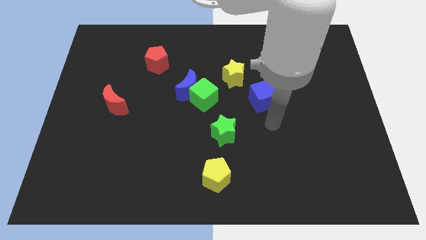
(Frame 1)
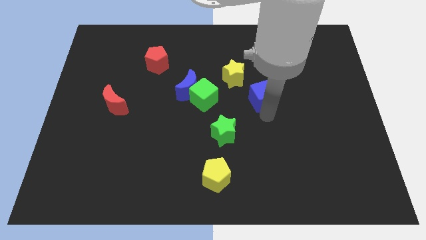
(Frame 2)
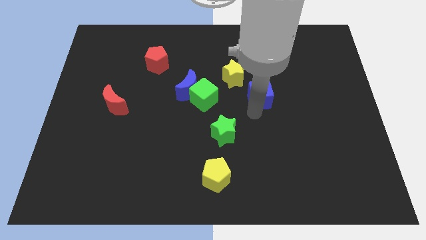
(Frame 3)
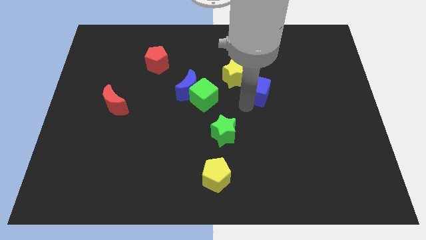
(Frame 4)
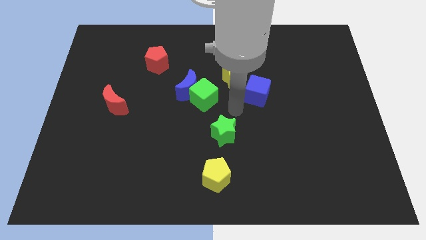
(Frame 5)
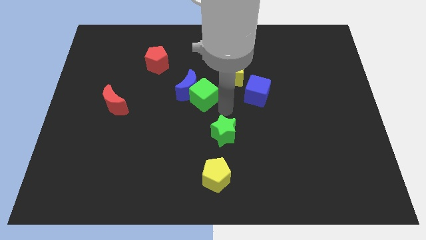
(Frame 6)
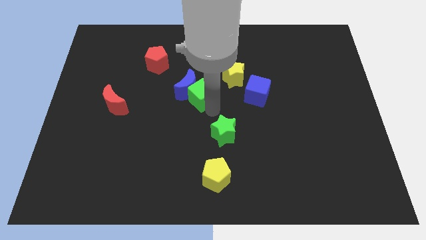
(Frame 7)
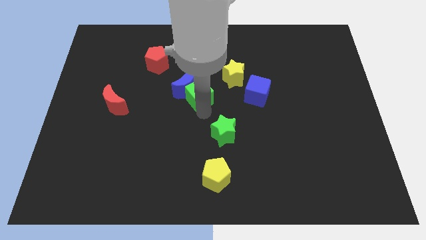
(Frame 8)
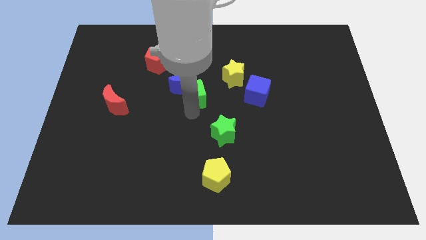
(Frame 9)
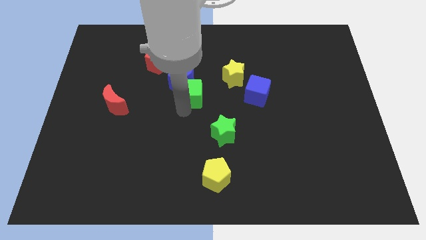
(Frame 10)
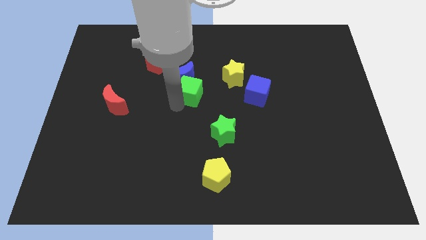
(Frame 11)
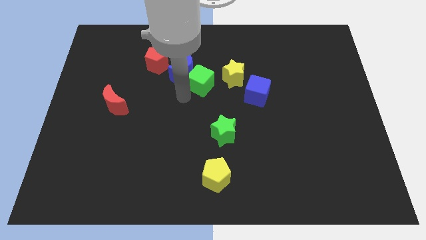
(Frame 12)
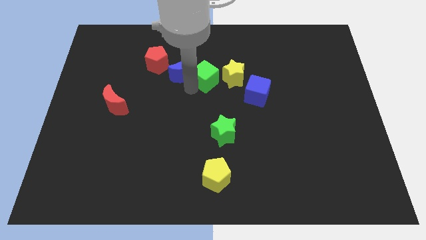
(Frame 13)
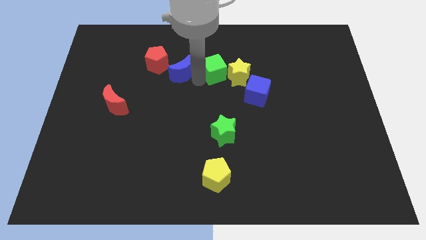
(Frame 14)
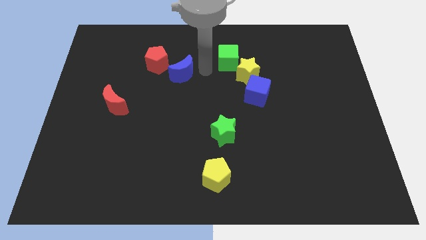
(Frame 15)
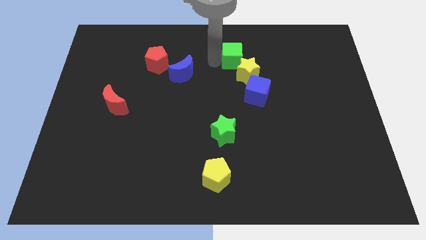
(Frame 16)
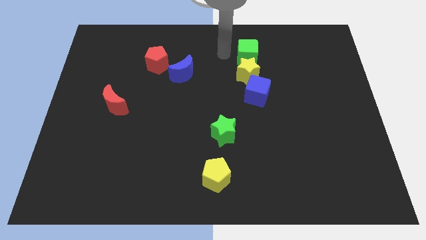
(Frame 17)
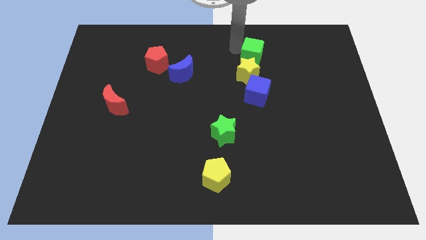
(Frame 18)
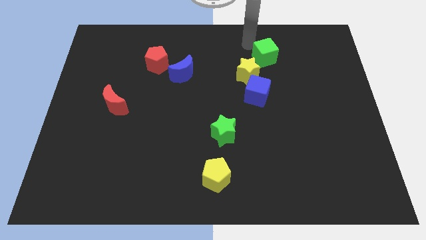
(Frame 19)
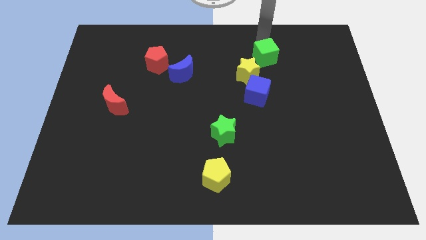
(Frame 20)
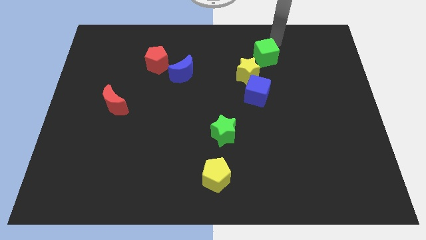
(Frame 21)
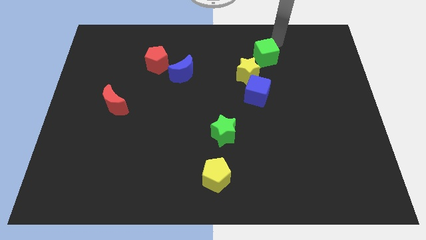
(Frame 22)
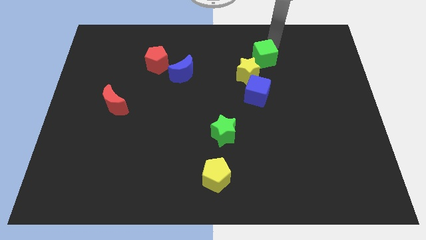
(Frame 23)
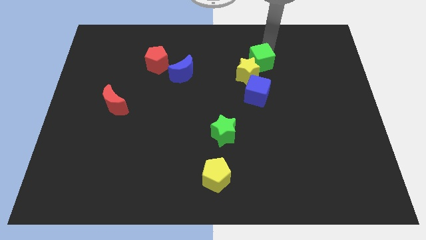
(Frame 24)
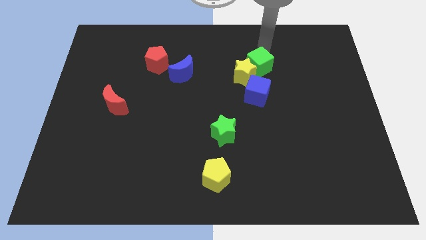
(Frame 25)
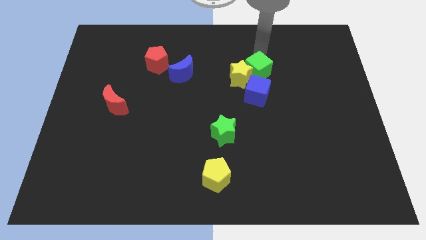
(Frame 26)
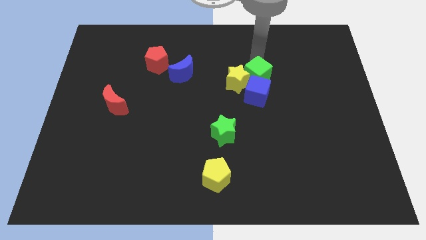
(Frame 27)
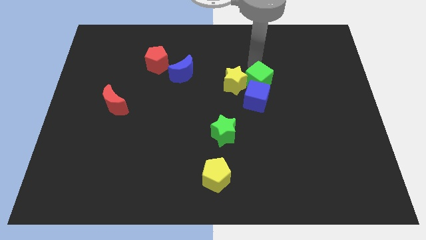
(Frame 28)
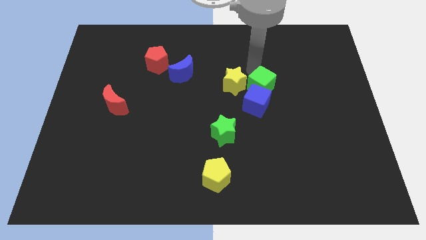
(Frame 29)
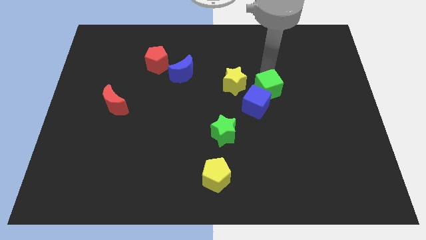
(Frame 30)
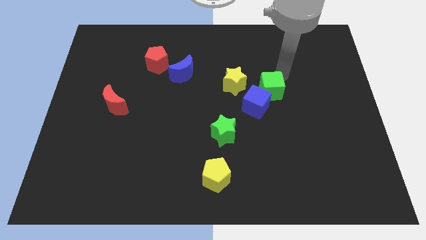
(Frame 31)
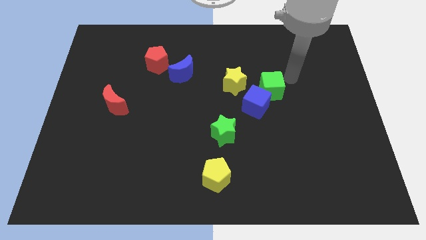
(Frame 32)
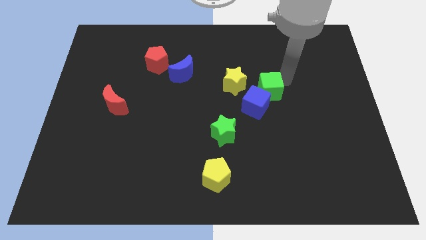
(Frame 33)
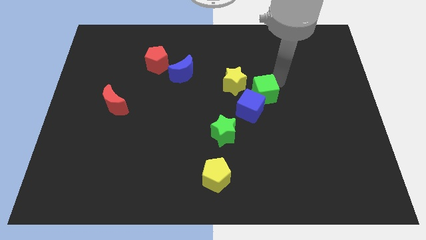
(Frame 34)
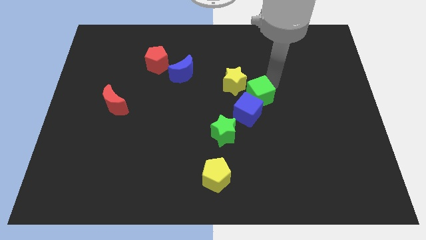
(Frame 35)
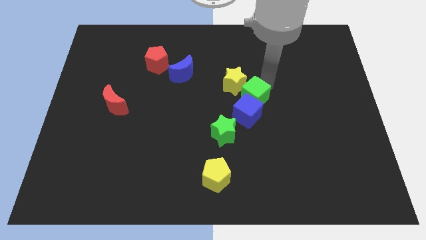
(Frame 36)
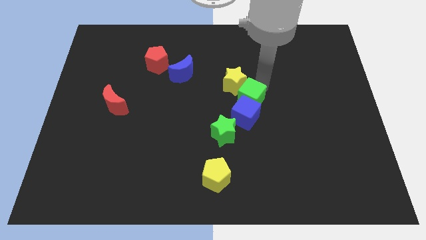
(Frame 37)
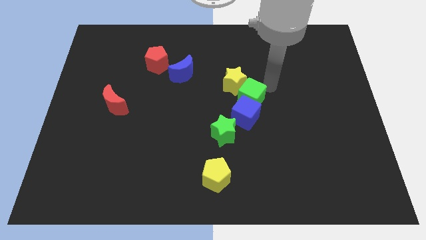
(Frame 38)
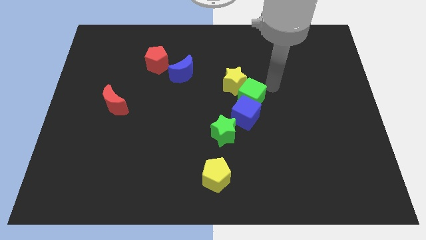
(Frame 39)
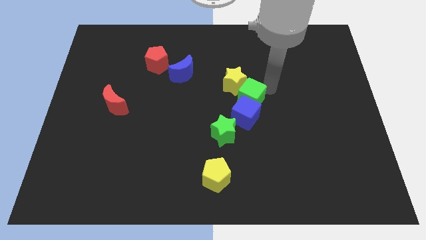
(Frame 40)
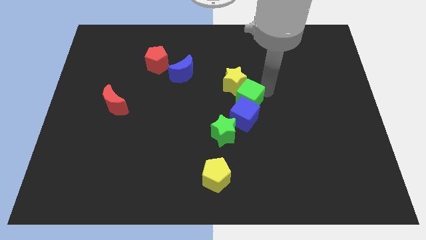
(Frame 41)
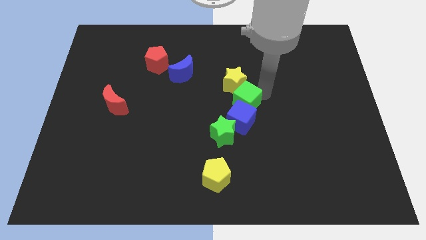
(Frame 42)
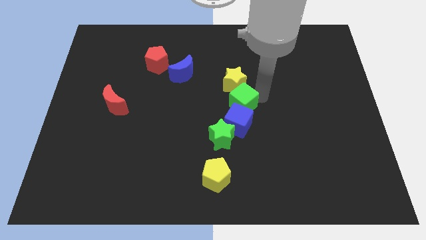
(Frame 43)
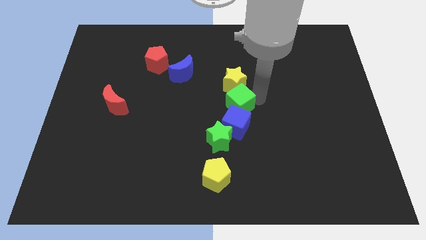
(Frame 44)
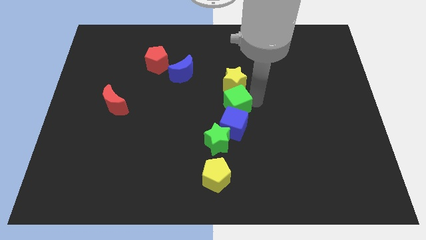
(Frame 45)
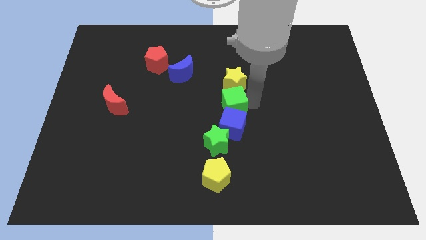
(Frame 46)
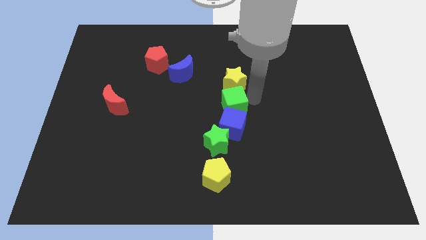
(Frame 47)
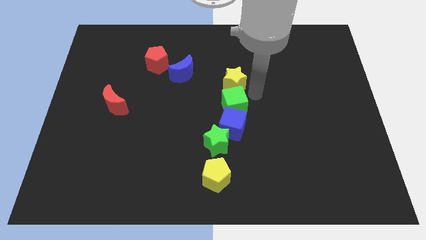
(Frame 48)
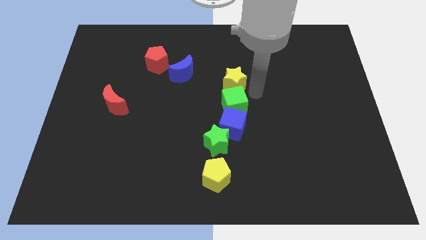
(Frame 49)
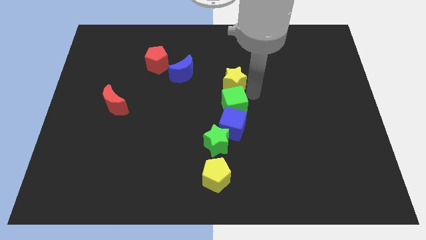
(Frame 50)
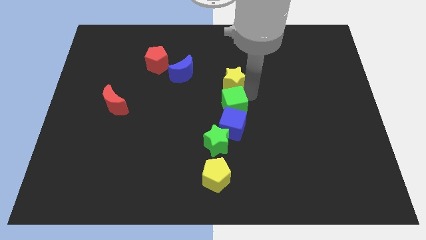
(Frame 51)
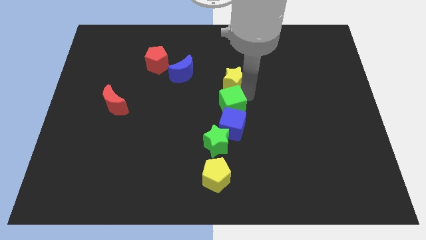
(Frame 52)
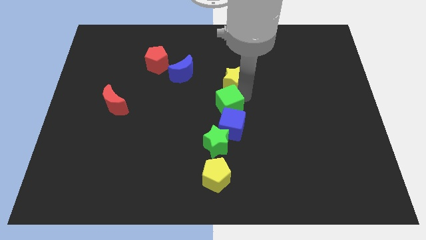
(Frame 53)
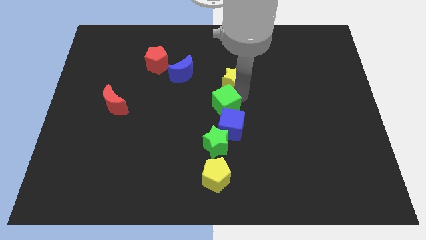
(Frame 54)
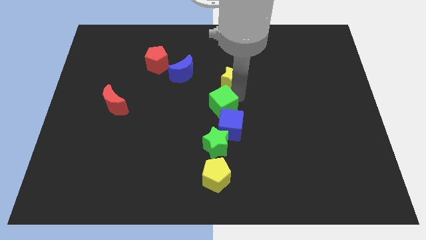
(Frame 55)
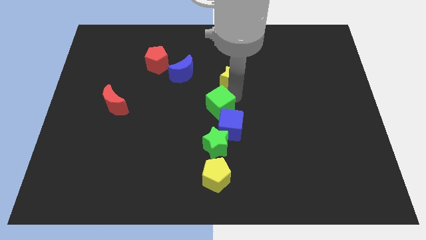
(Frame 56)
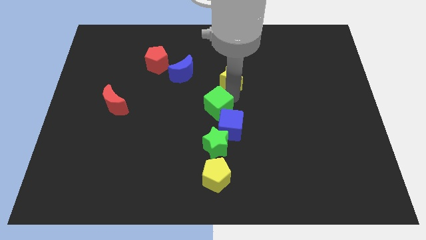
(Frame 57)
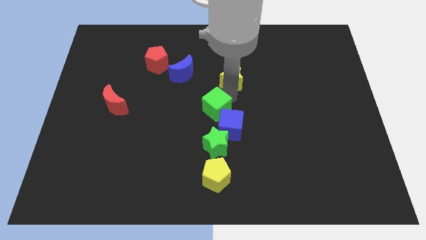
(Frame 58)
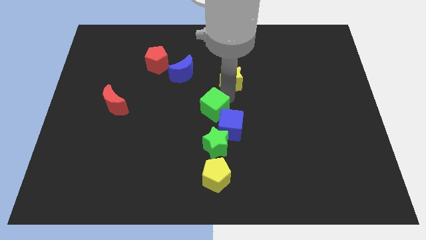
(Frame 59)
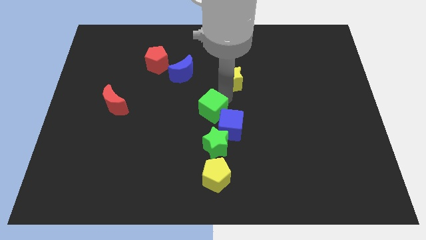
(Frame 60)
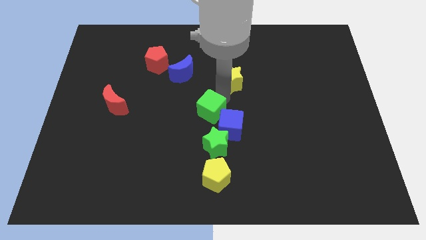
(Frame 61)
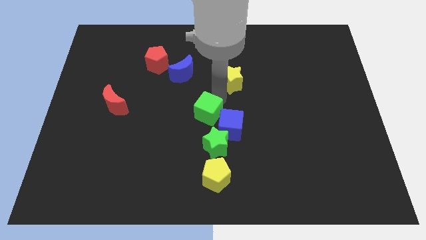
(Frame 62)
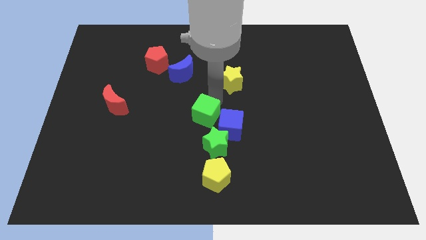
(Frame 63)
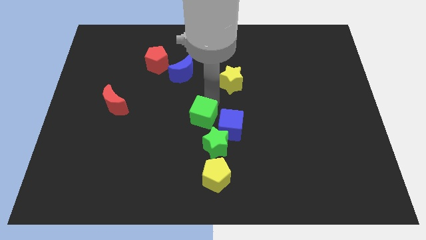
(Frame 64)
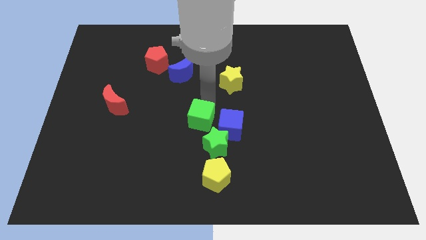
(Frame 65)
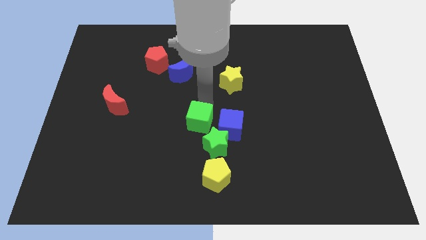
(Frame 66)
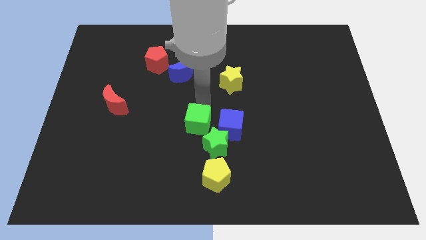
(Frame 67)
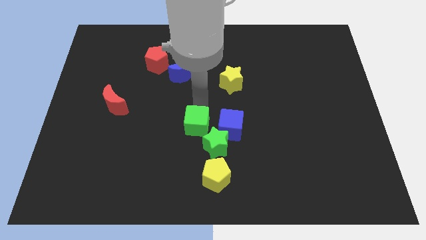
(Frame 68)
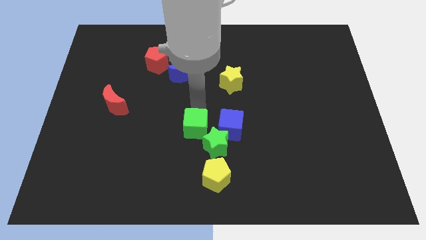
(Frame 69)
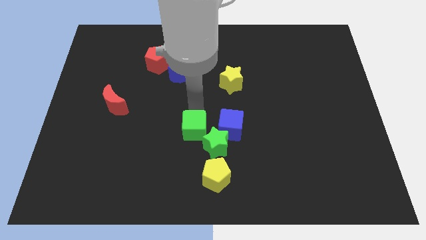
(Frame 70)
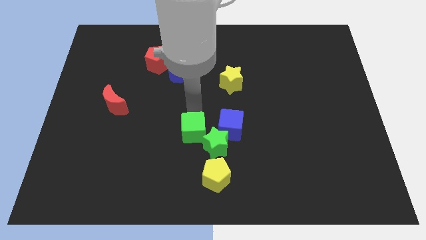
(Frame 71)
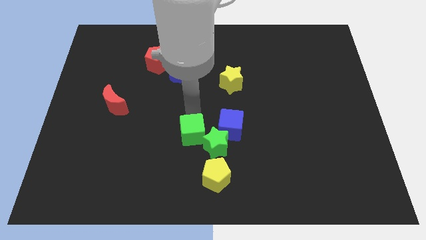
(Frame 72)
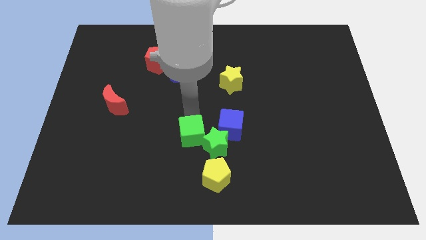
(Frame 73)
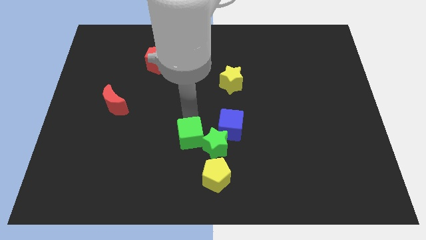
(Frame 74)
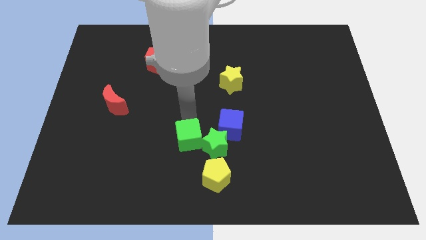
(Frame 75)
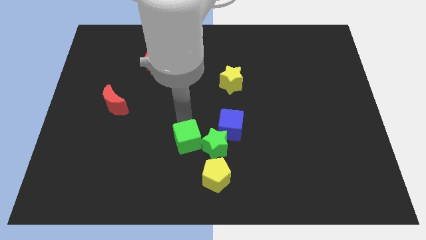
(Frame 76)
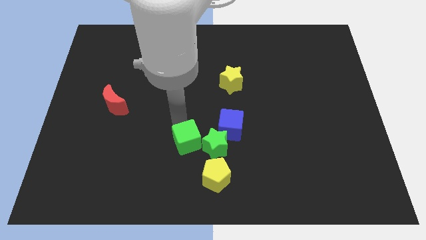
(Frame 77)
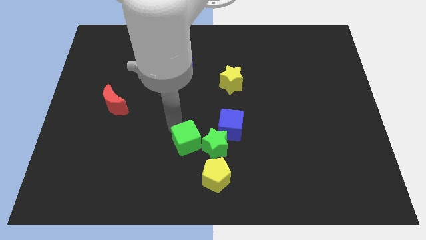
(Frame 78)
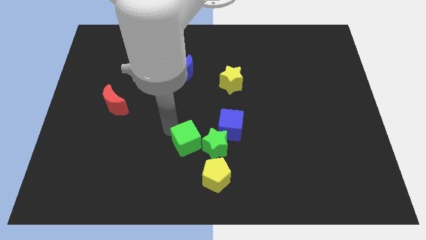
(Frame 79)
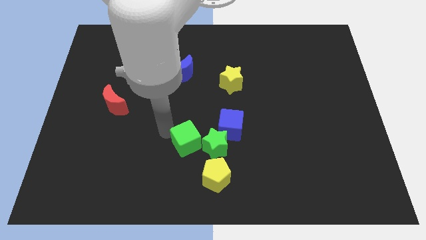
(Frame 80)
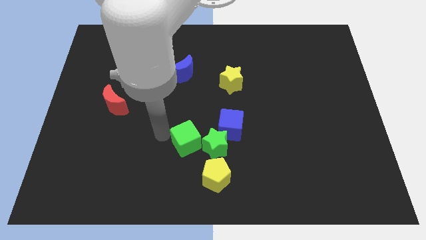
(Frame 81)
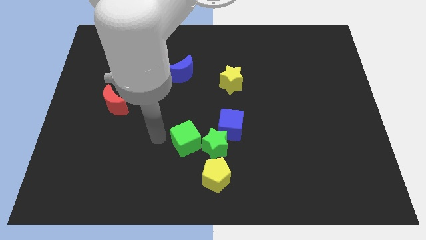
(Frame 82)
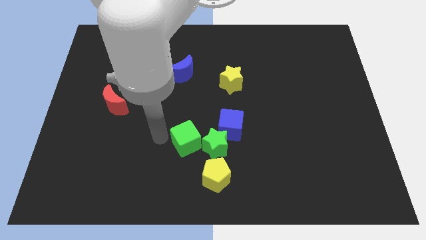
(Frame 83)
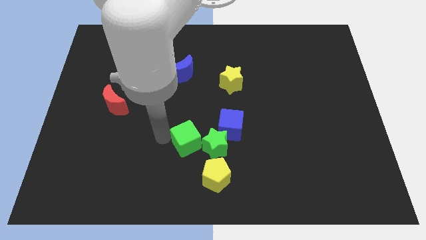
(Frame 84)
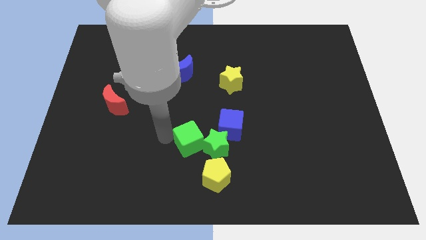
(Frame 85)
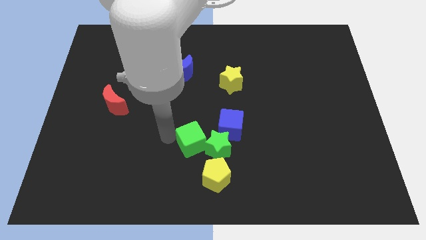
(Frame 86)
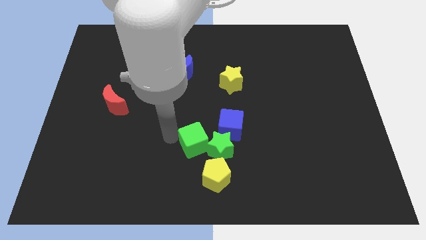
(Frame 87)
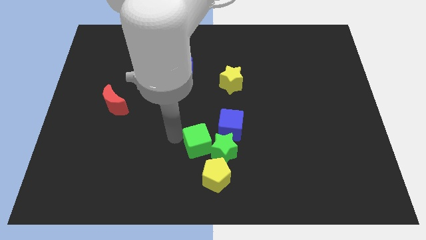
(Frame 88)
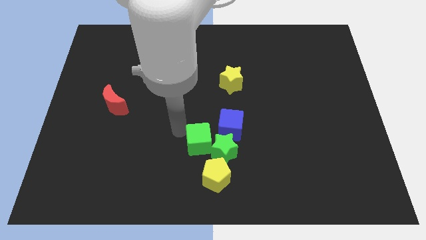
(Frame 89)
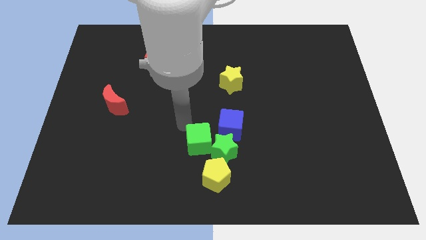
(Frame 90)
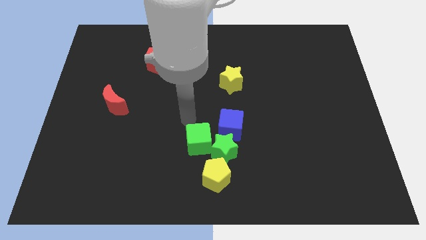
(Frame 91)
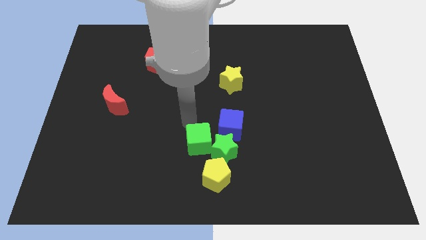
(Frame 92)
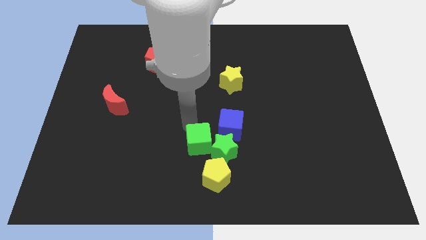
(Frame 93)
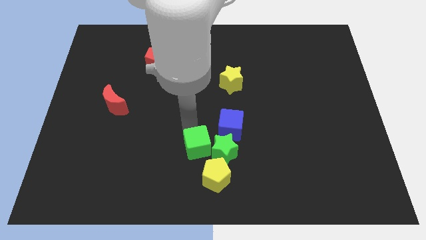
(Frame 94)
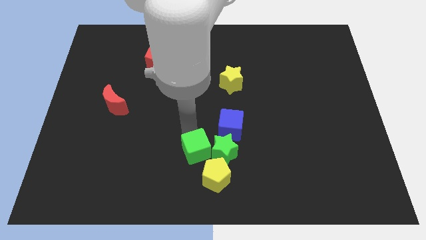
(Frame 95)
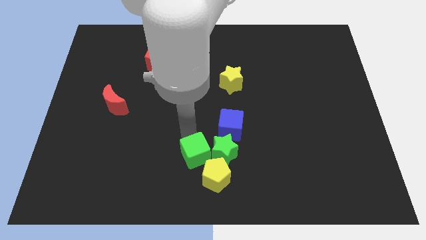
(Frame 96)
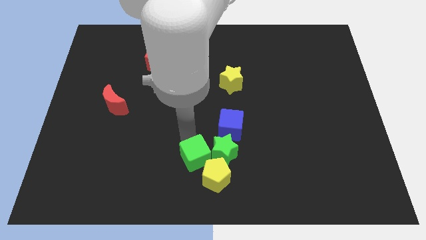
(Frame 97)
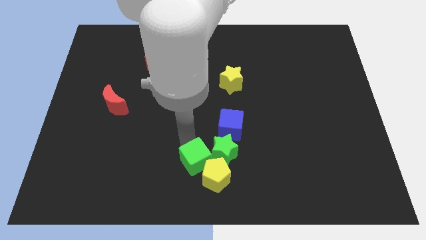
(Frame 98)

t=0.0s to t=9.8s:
push the green cube next to the yellow pentagon
